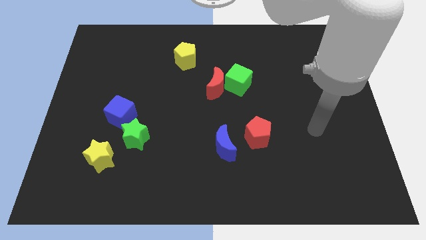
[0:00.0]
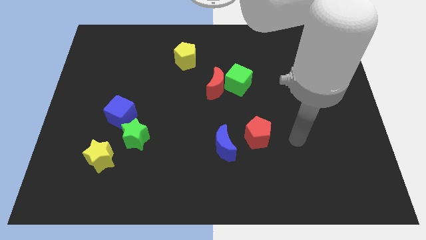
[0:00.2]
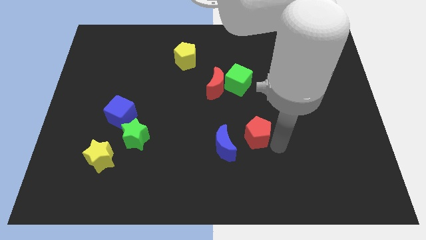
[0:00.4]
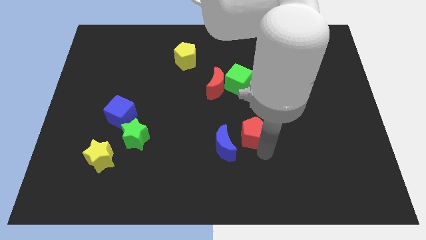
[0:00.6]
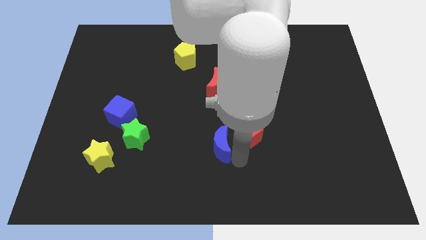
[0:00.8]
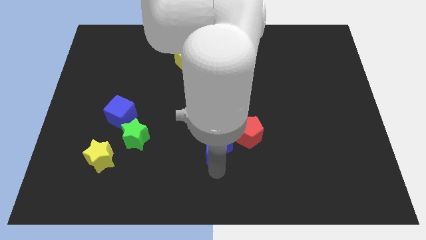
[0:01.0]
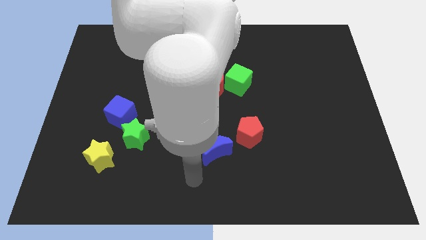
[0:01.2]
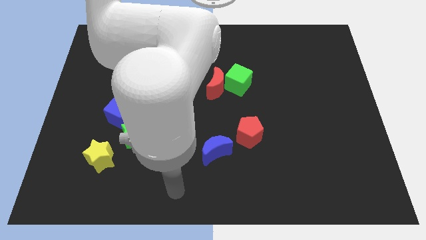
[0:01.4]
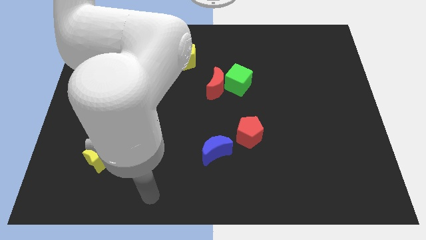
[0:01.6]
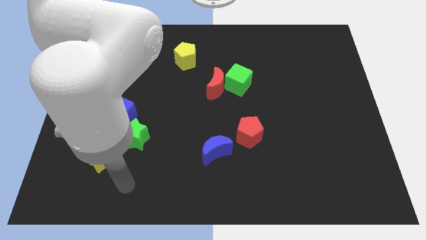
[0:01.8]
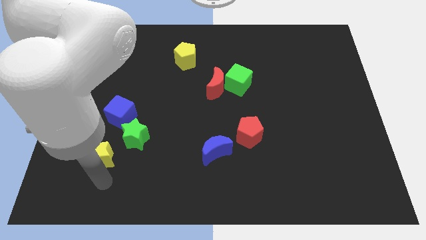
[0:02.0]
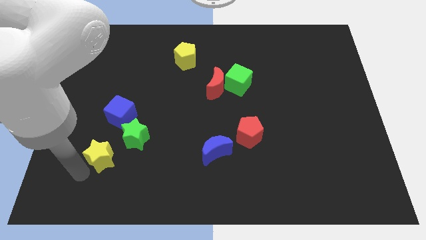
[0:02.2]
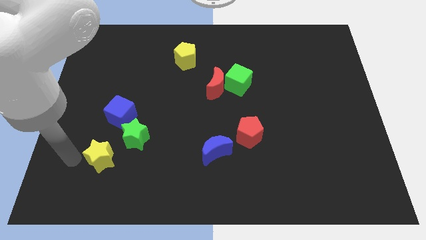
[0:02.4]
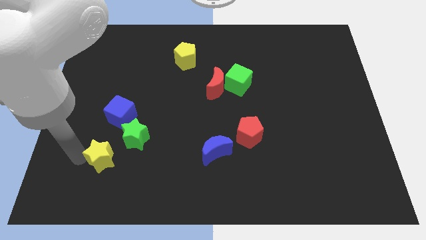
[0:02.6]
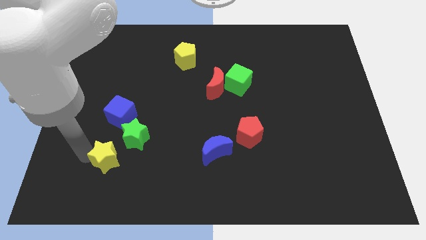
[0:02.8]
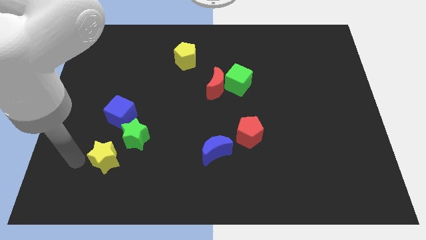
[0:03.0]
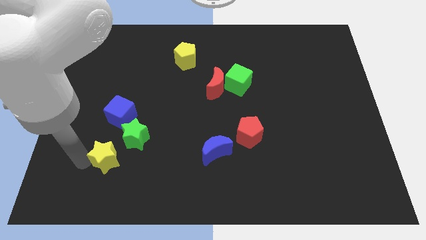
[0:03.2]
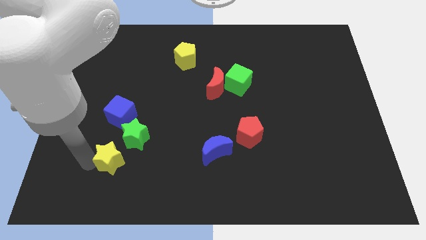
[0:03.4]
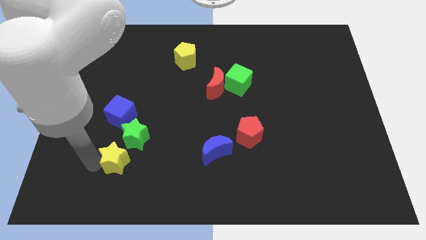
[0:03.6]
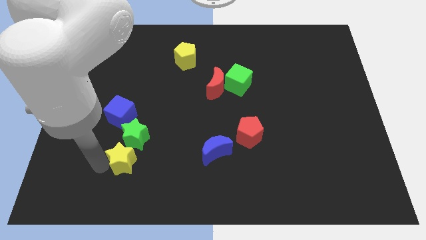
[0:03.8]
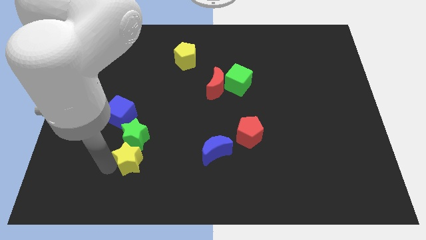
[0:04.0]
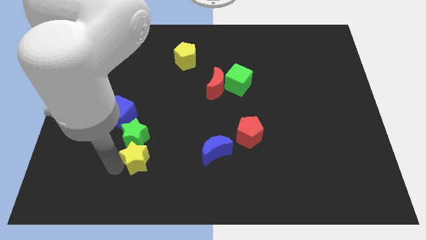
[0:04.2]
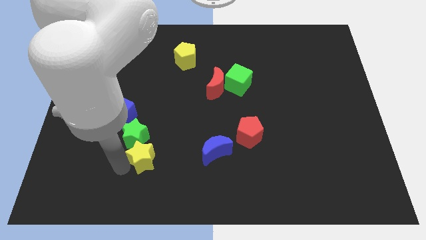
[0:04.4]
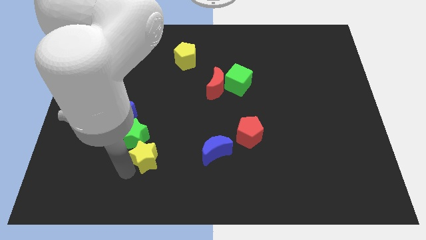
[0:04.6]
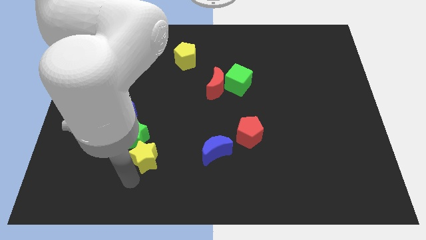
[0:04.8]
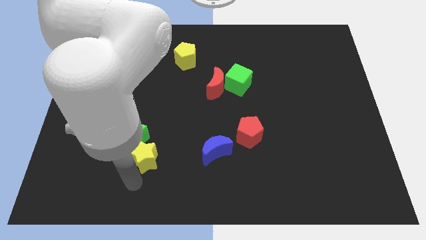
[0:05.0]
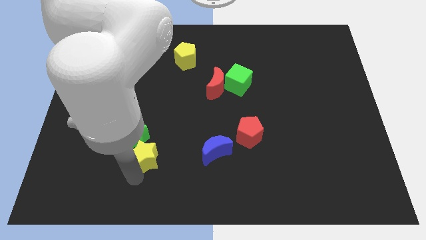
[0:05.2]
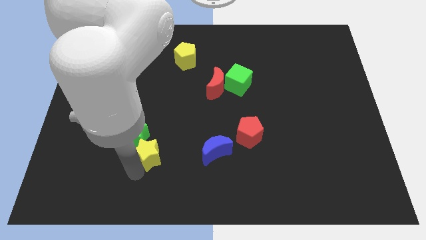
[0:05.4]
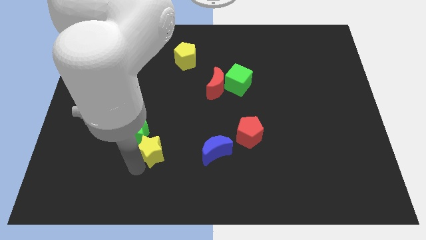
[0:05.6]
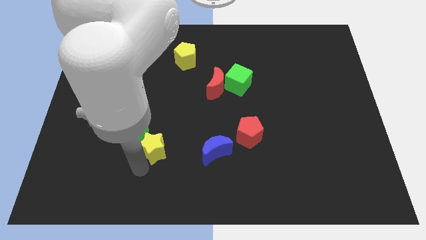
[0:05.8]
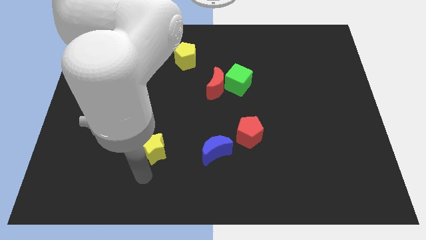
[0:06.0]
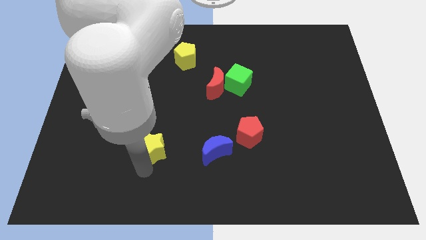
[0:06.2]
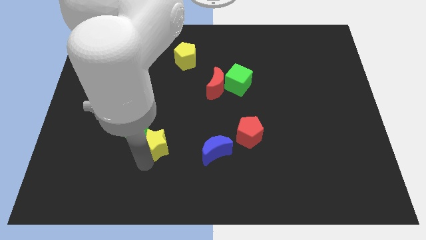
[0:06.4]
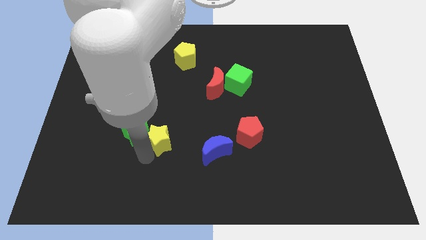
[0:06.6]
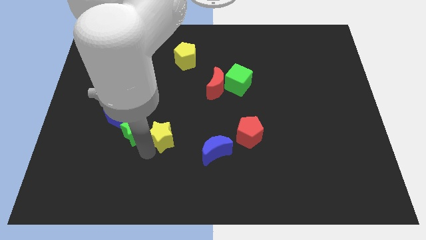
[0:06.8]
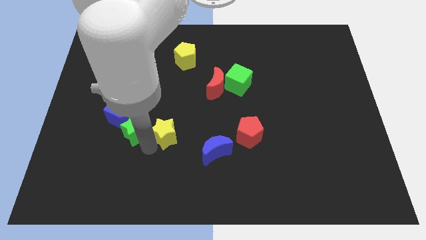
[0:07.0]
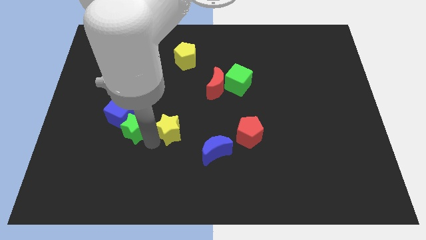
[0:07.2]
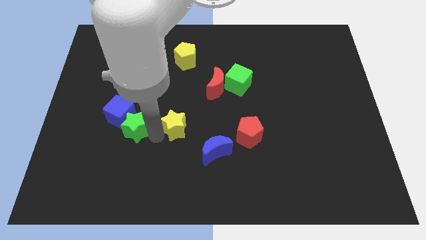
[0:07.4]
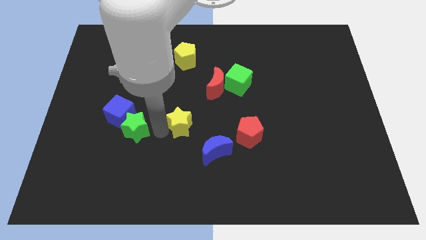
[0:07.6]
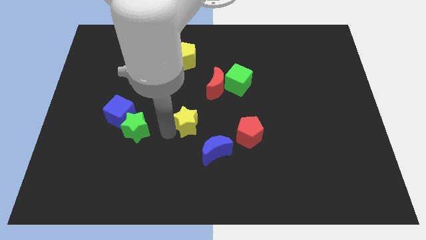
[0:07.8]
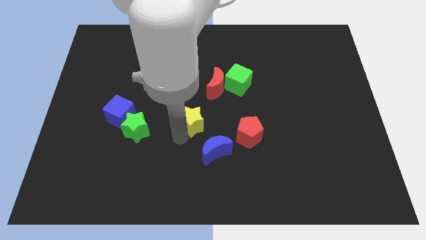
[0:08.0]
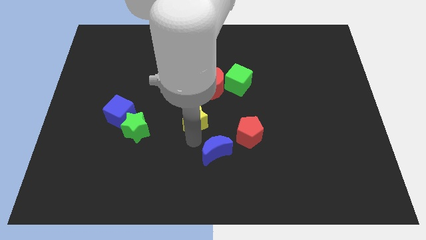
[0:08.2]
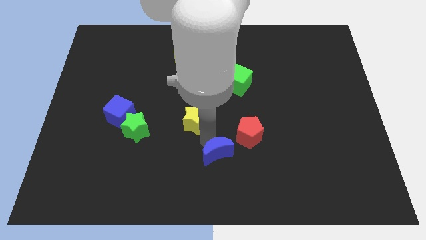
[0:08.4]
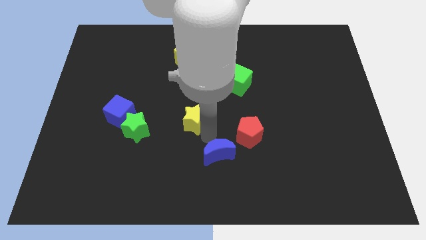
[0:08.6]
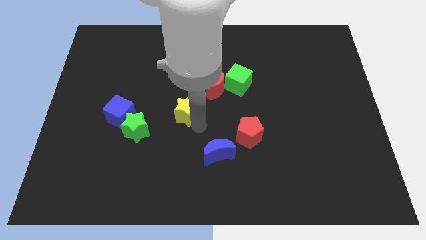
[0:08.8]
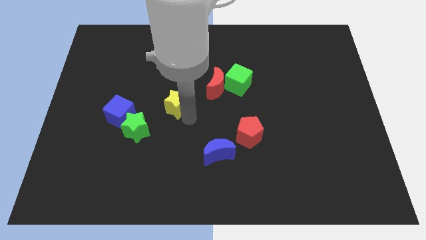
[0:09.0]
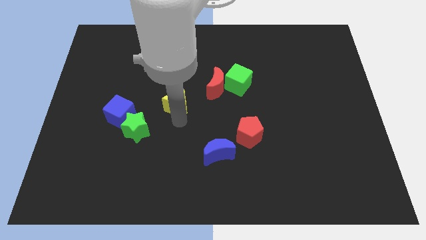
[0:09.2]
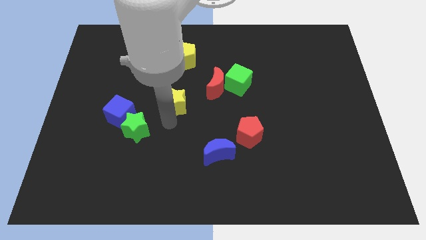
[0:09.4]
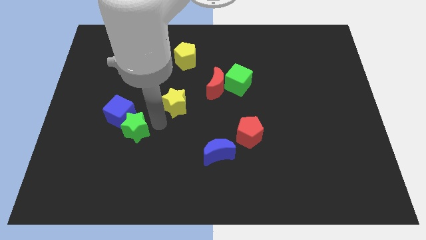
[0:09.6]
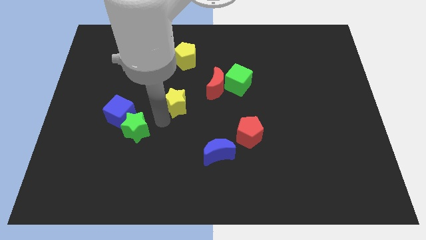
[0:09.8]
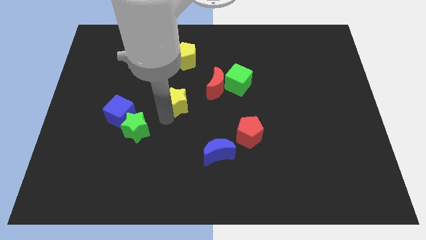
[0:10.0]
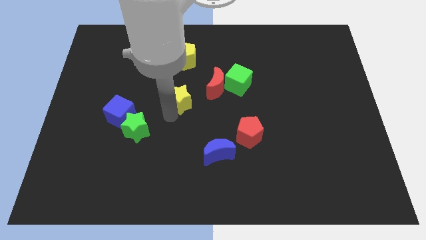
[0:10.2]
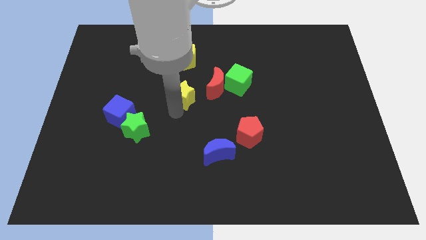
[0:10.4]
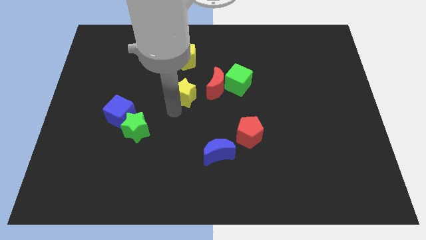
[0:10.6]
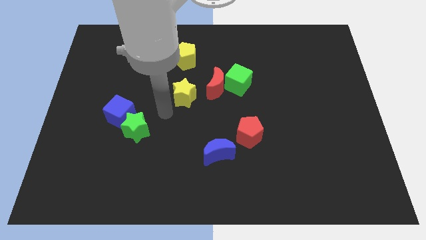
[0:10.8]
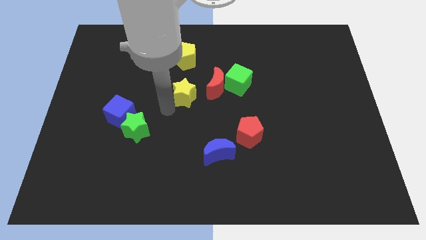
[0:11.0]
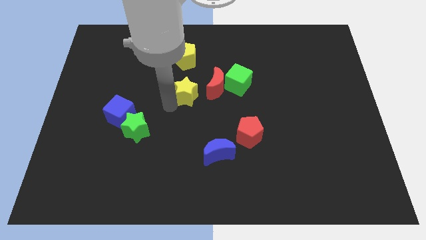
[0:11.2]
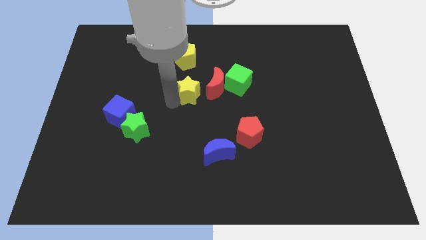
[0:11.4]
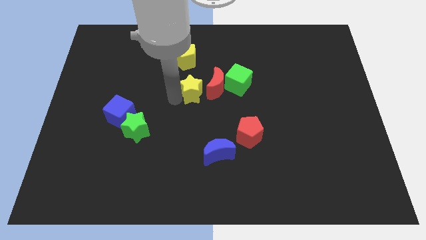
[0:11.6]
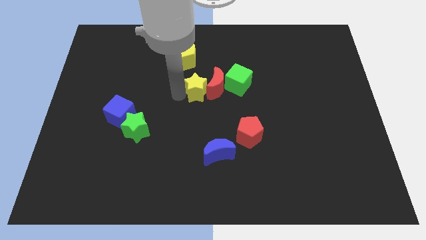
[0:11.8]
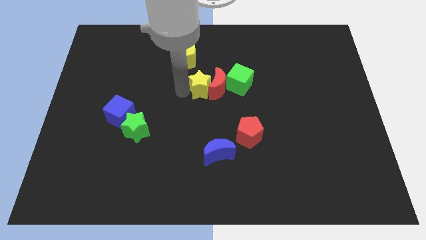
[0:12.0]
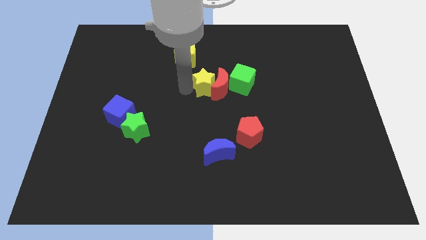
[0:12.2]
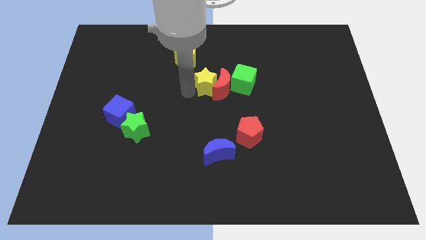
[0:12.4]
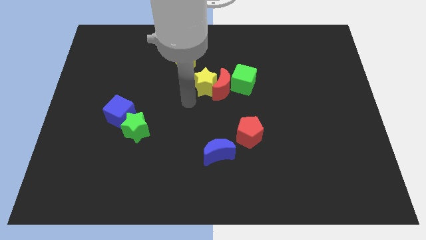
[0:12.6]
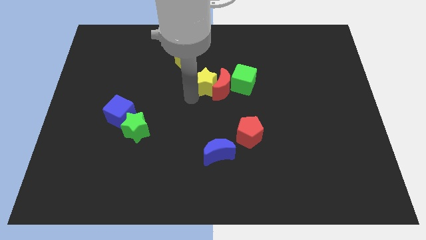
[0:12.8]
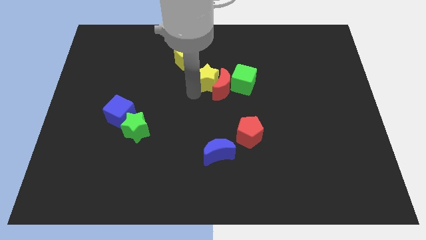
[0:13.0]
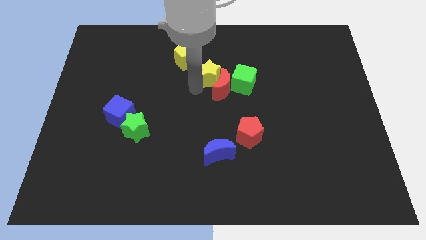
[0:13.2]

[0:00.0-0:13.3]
slide the yellow star to the top left side of the green cube
